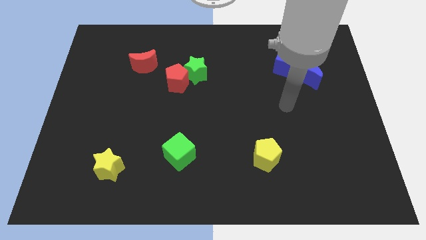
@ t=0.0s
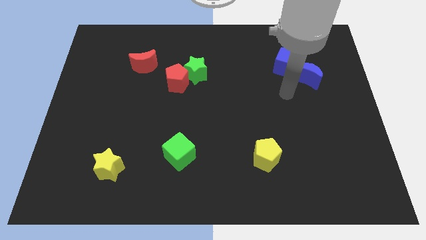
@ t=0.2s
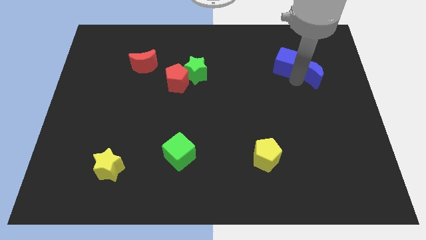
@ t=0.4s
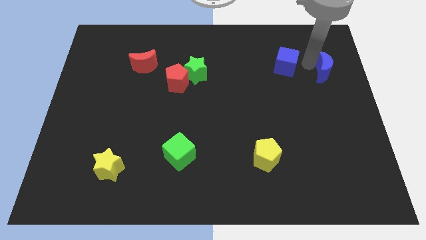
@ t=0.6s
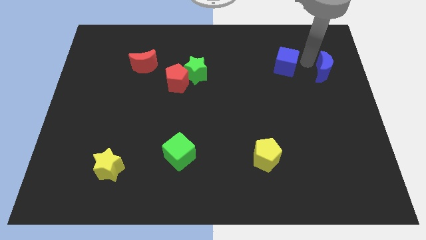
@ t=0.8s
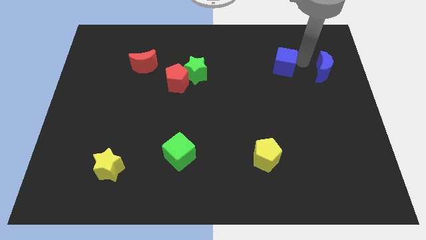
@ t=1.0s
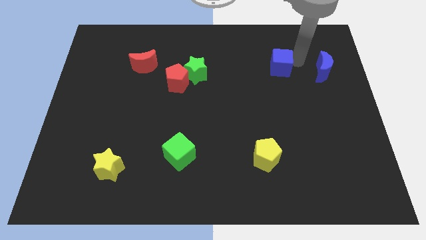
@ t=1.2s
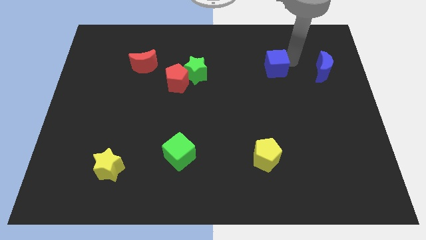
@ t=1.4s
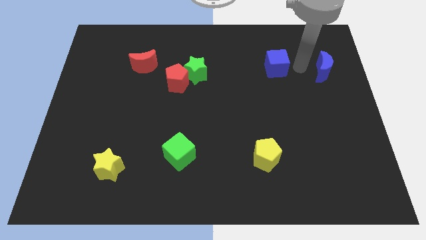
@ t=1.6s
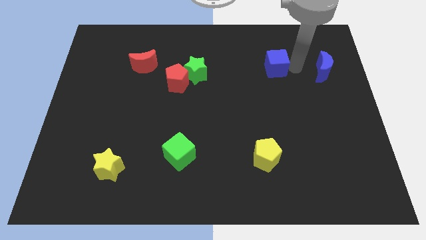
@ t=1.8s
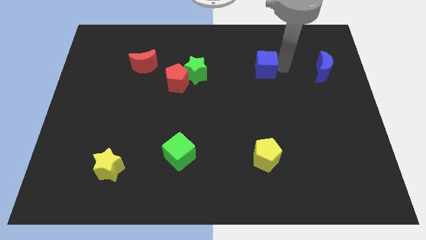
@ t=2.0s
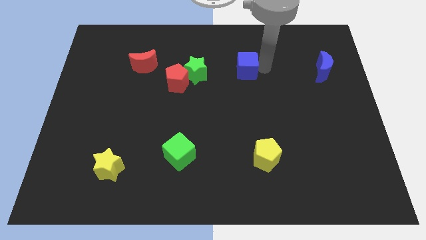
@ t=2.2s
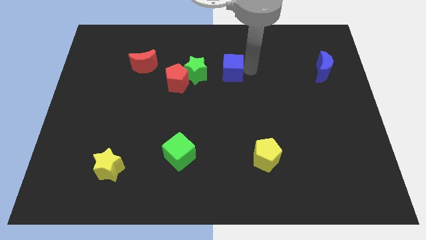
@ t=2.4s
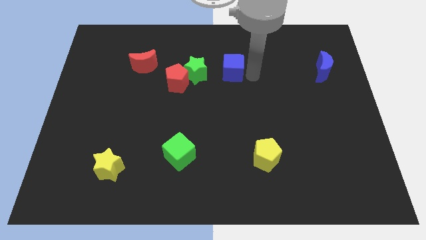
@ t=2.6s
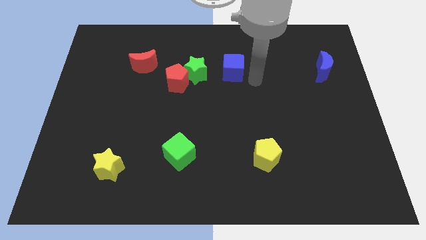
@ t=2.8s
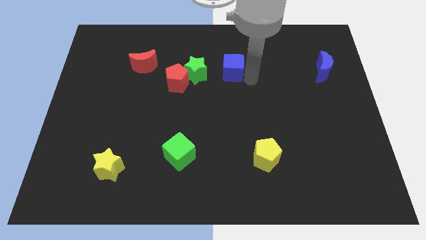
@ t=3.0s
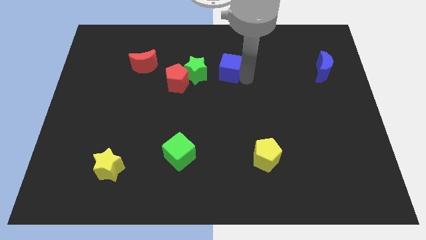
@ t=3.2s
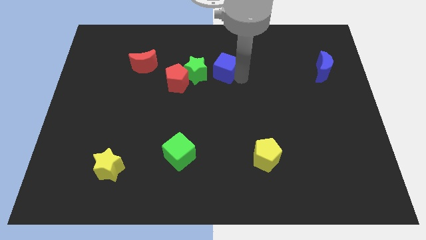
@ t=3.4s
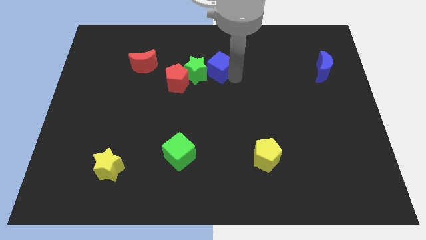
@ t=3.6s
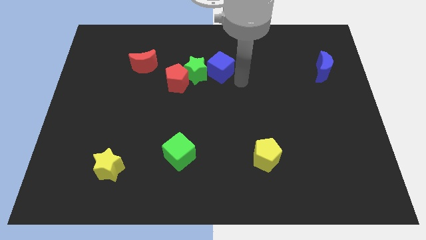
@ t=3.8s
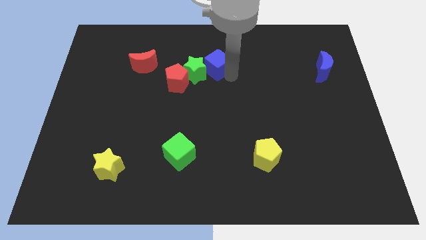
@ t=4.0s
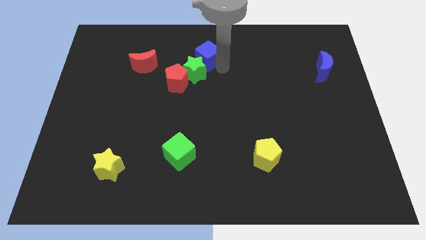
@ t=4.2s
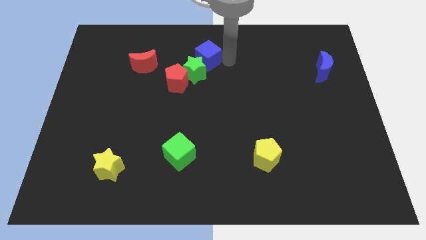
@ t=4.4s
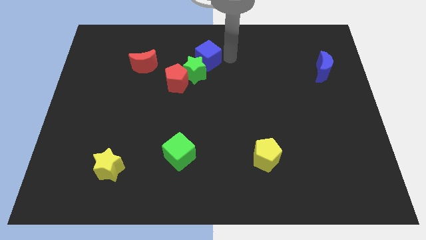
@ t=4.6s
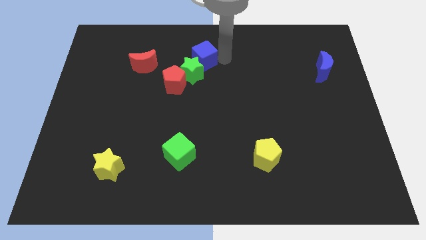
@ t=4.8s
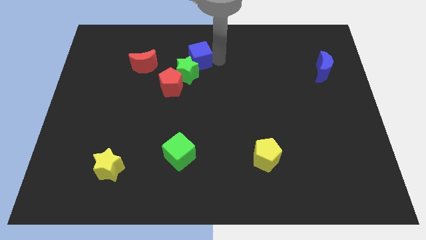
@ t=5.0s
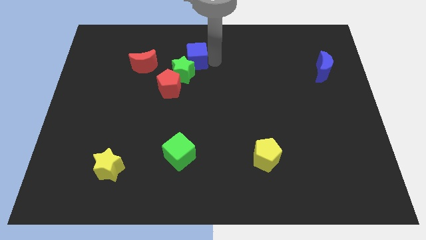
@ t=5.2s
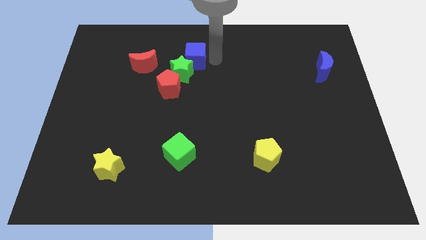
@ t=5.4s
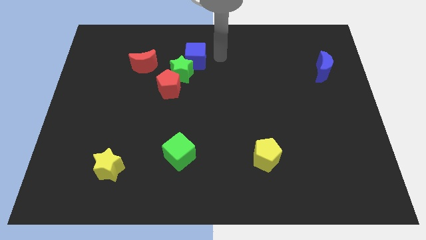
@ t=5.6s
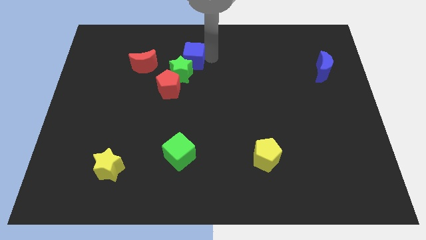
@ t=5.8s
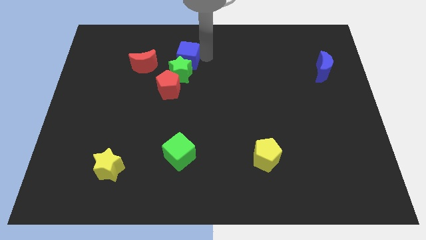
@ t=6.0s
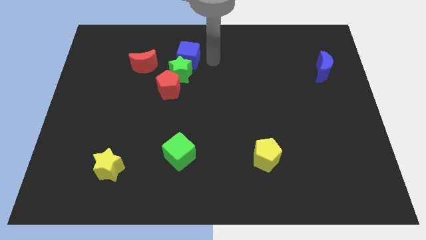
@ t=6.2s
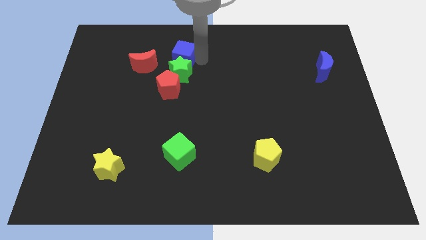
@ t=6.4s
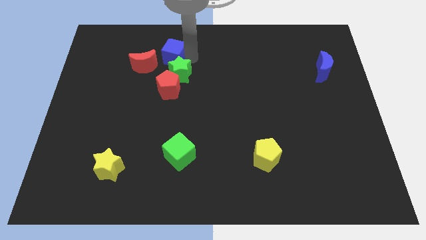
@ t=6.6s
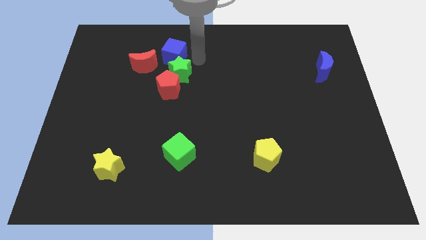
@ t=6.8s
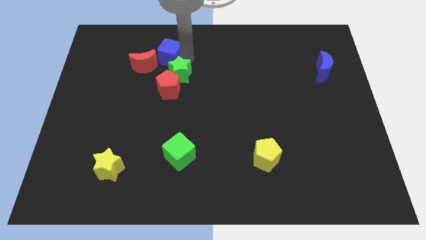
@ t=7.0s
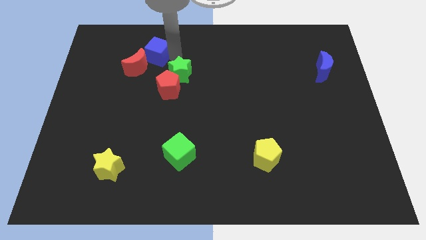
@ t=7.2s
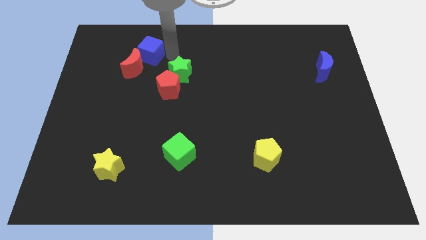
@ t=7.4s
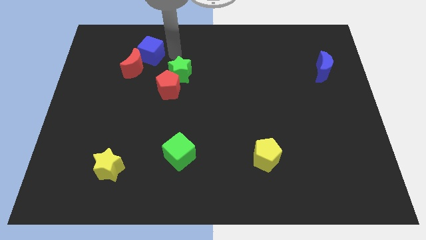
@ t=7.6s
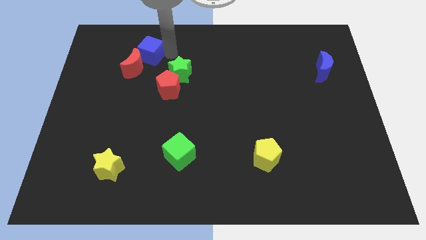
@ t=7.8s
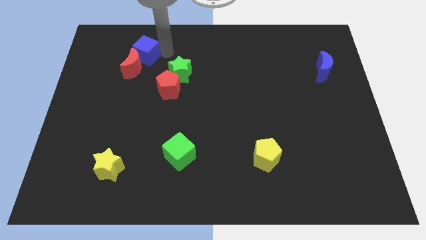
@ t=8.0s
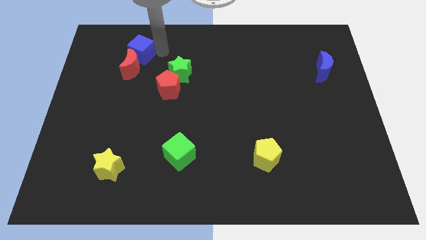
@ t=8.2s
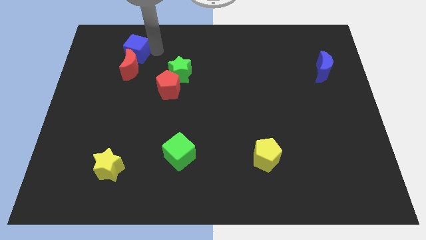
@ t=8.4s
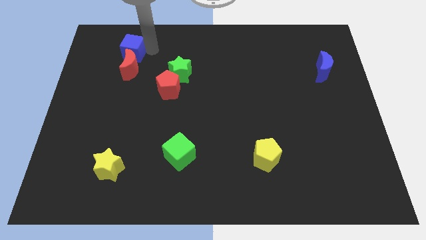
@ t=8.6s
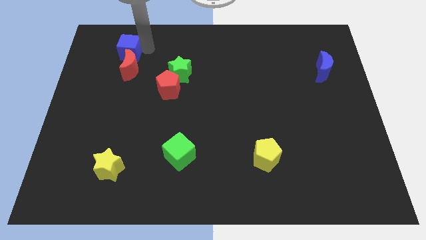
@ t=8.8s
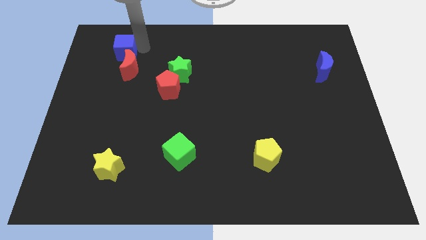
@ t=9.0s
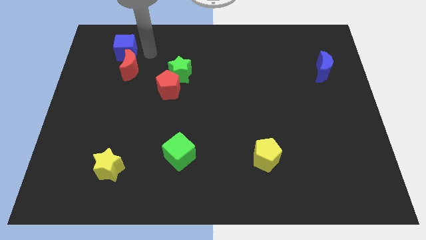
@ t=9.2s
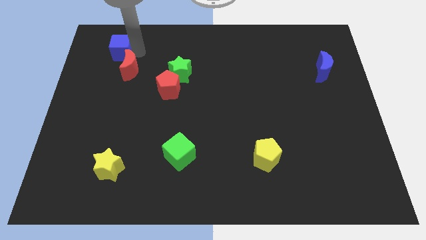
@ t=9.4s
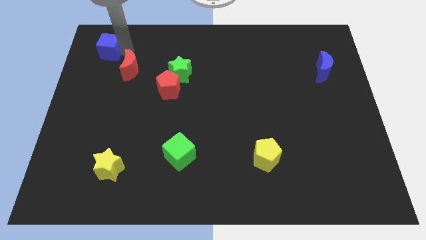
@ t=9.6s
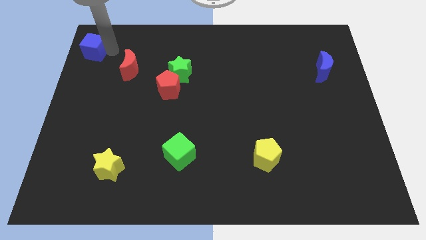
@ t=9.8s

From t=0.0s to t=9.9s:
slide the blue cube to the top left corner

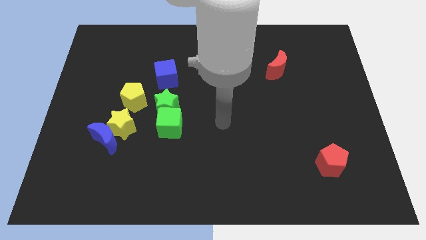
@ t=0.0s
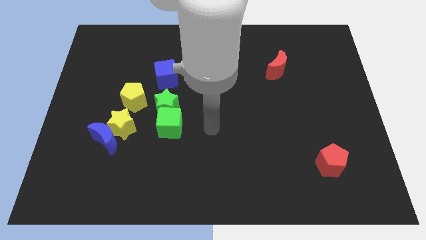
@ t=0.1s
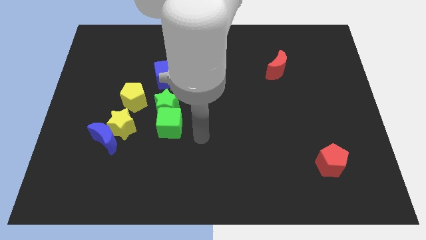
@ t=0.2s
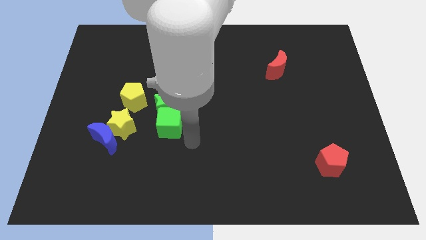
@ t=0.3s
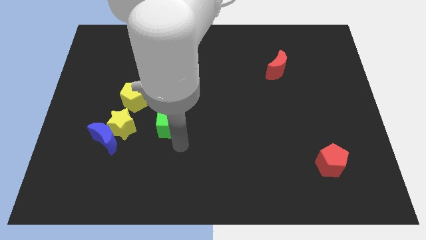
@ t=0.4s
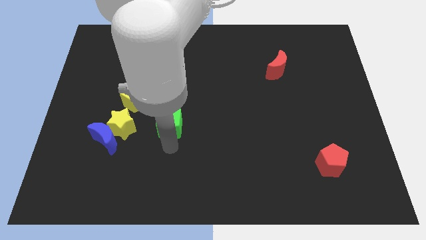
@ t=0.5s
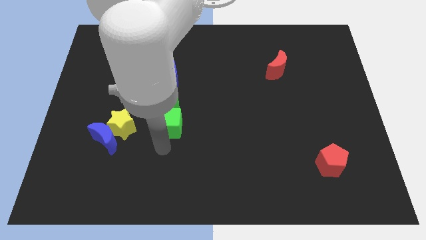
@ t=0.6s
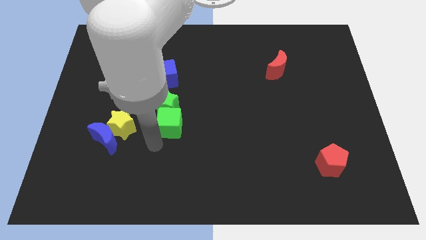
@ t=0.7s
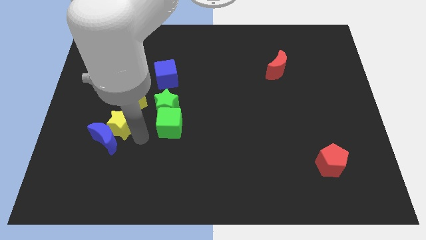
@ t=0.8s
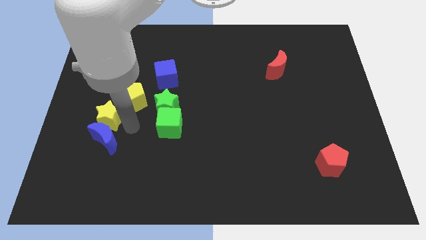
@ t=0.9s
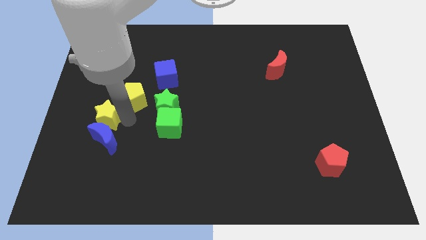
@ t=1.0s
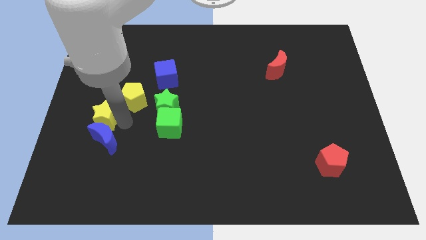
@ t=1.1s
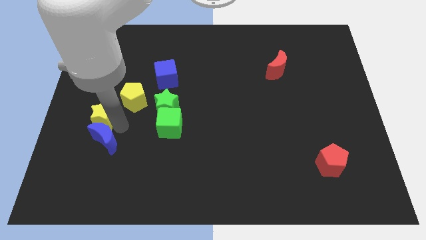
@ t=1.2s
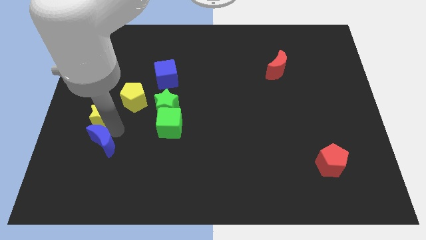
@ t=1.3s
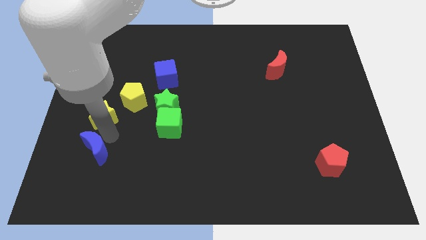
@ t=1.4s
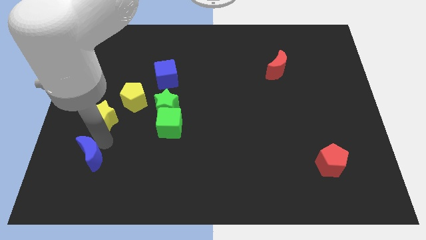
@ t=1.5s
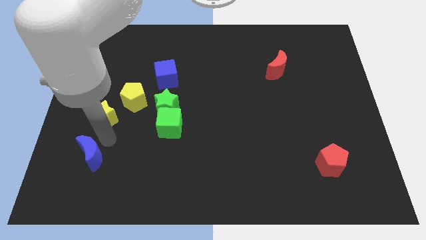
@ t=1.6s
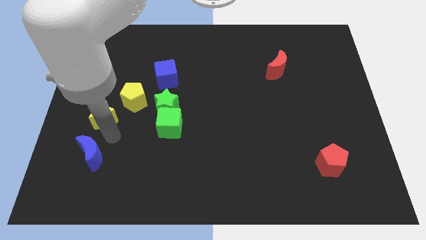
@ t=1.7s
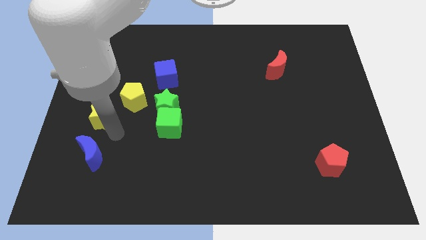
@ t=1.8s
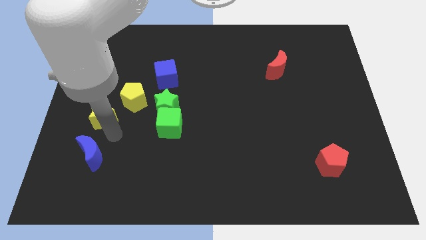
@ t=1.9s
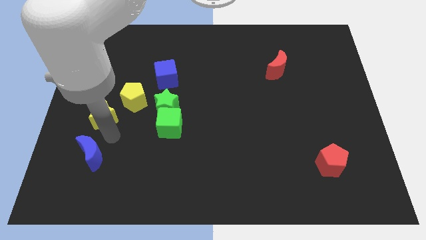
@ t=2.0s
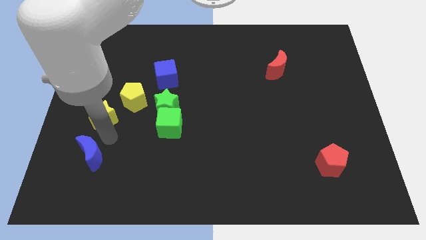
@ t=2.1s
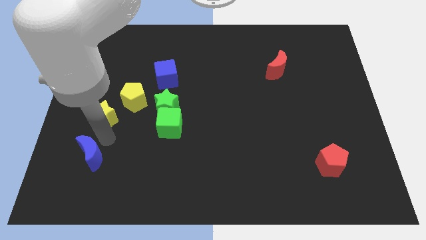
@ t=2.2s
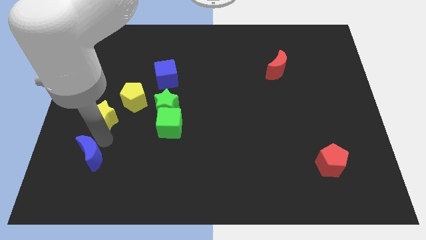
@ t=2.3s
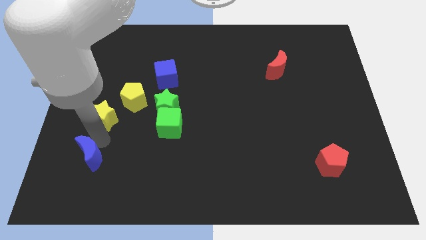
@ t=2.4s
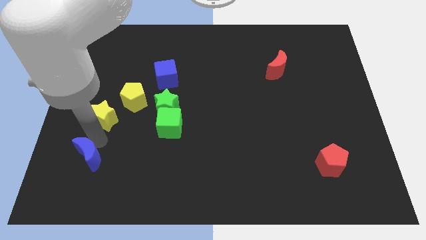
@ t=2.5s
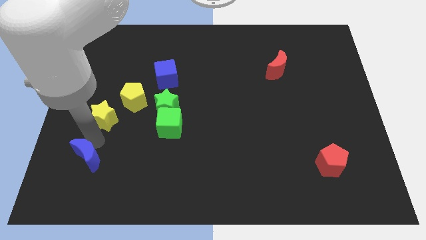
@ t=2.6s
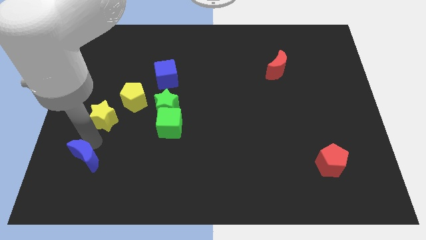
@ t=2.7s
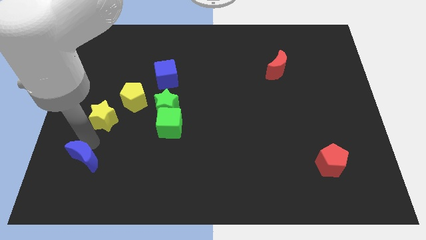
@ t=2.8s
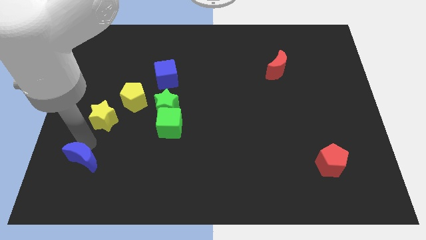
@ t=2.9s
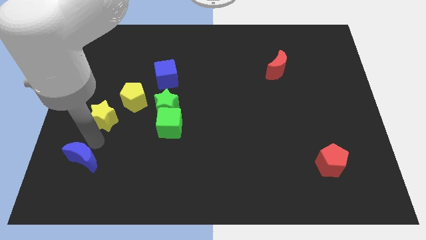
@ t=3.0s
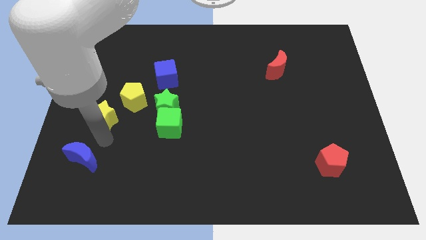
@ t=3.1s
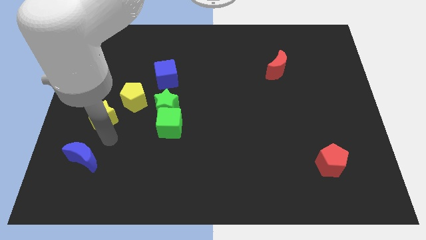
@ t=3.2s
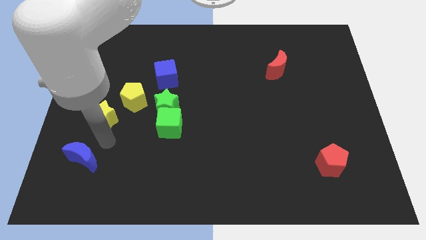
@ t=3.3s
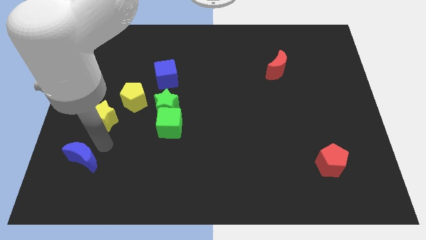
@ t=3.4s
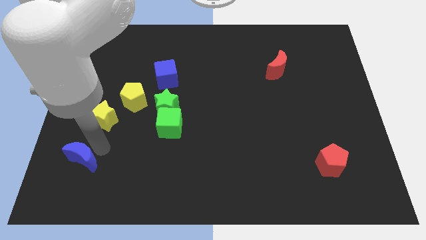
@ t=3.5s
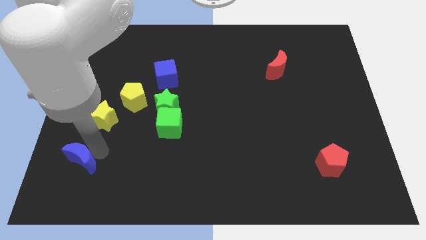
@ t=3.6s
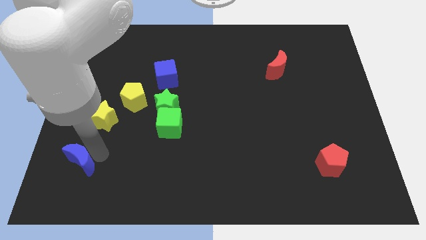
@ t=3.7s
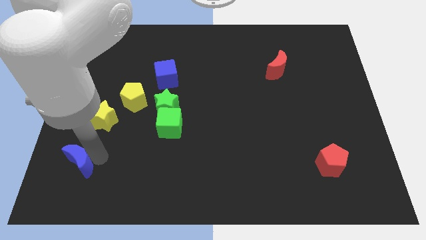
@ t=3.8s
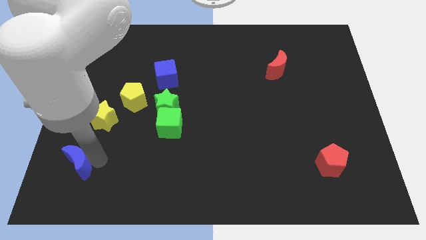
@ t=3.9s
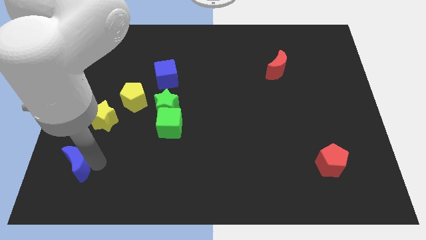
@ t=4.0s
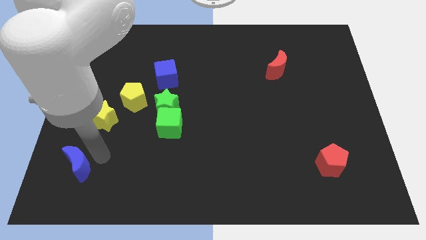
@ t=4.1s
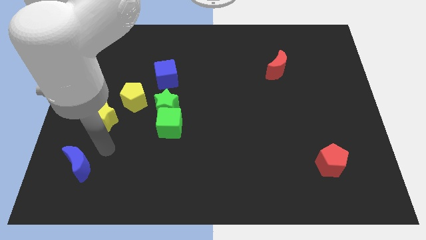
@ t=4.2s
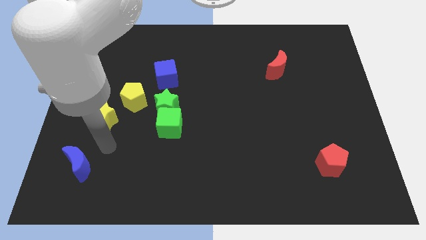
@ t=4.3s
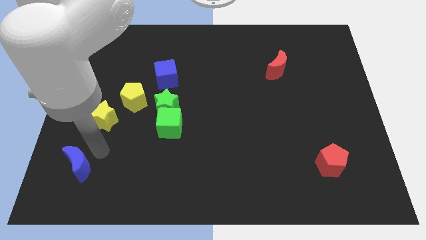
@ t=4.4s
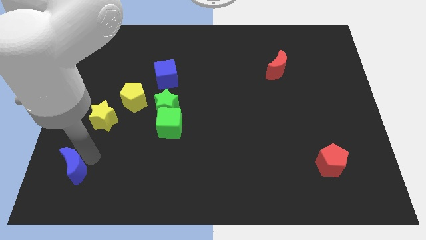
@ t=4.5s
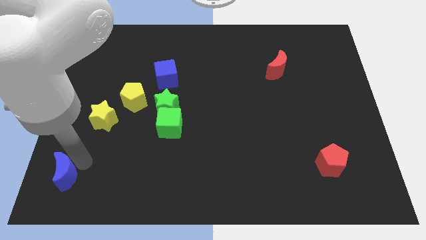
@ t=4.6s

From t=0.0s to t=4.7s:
push the blue moon to the bottom left
